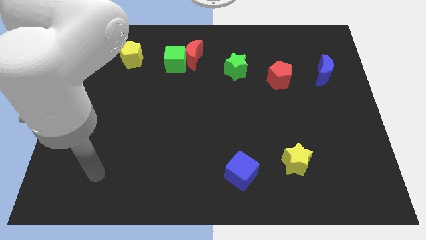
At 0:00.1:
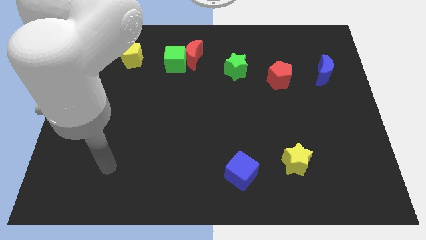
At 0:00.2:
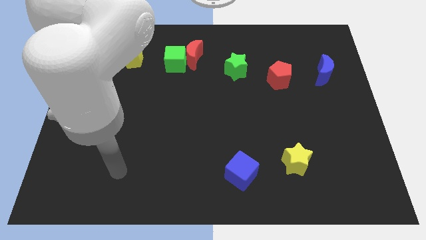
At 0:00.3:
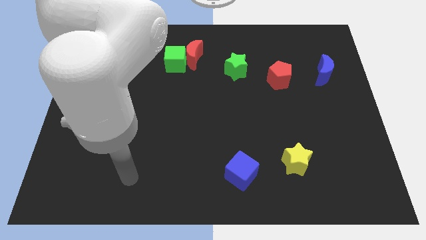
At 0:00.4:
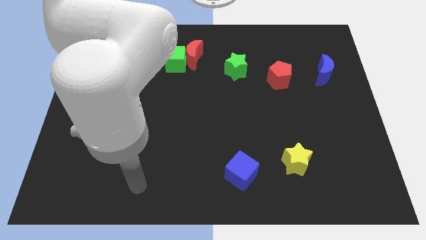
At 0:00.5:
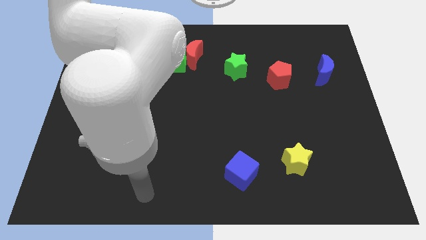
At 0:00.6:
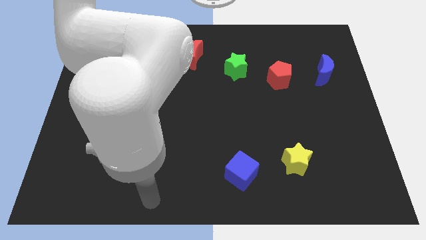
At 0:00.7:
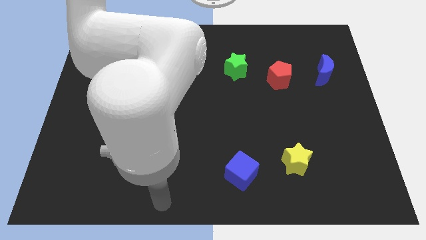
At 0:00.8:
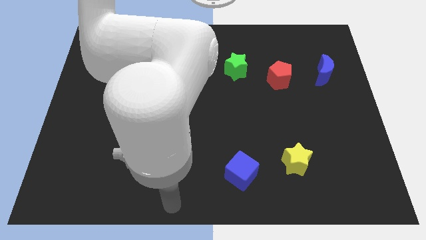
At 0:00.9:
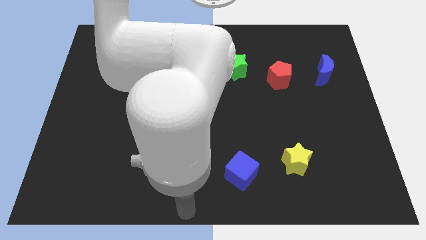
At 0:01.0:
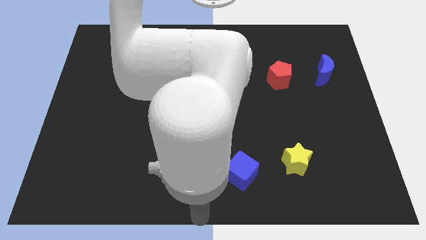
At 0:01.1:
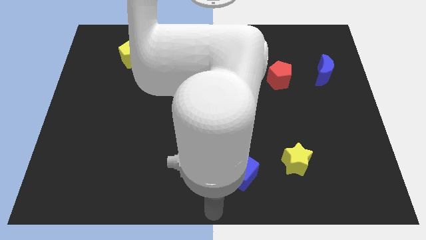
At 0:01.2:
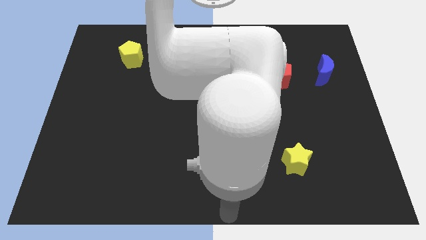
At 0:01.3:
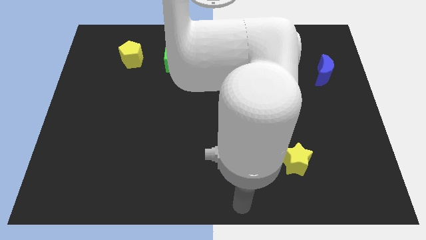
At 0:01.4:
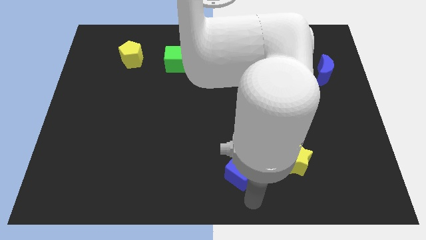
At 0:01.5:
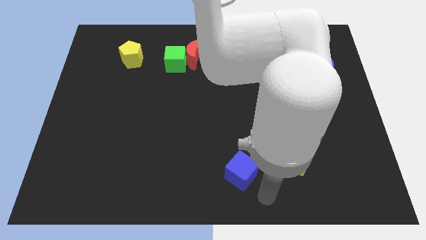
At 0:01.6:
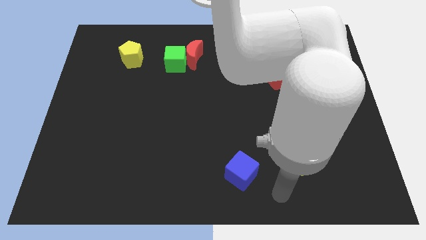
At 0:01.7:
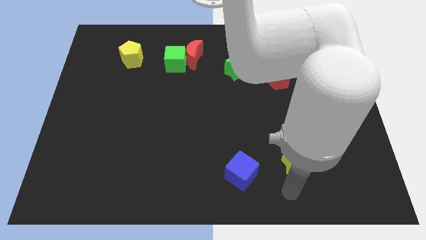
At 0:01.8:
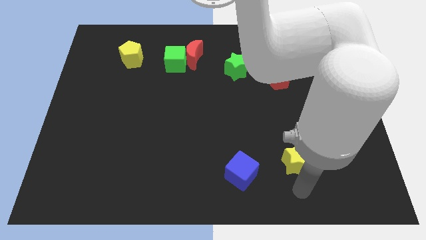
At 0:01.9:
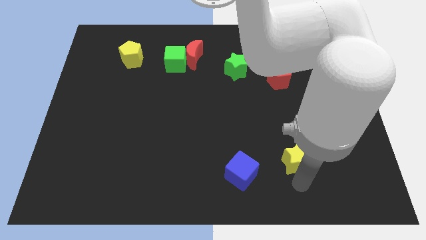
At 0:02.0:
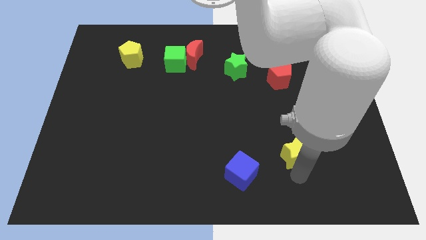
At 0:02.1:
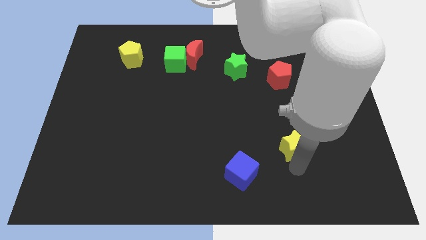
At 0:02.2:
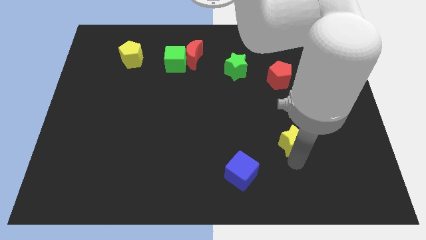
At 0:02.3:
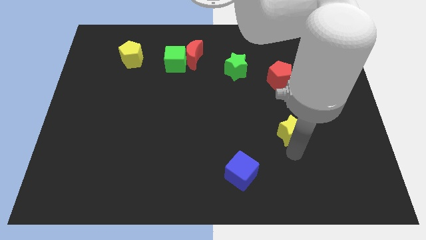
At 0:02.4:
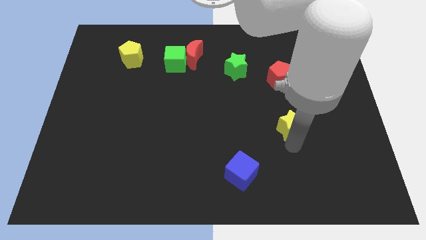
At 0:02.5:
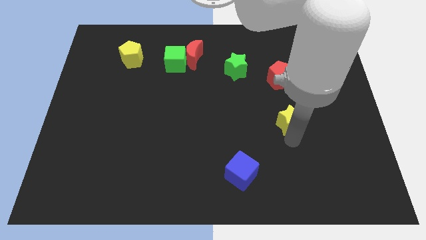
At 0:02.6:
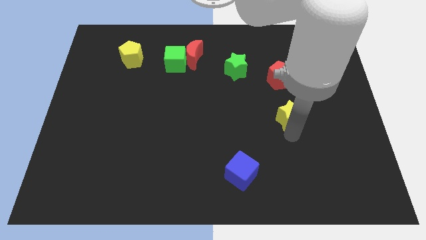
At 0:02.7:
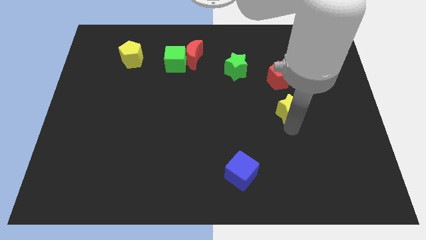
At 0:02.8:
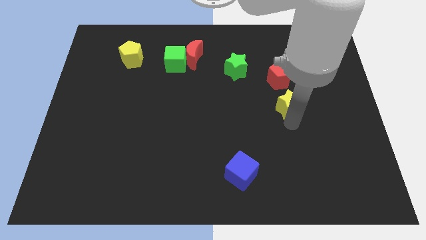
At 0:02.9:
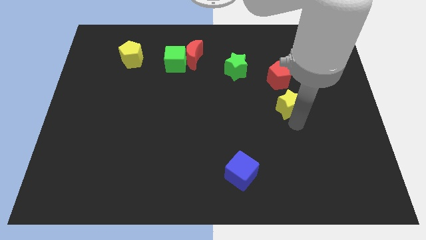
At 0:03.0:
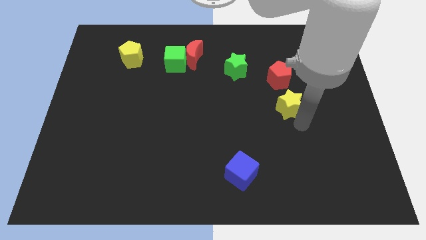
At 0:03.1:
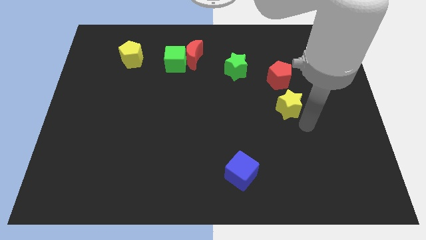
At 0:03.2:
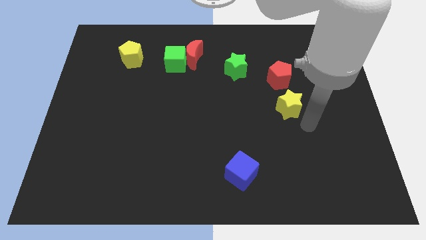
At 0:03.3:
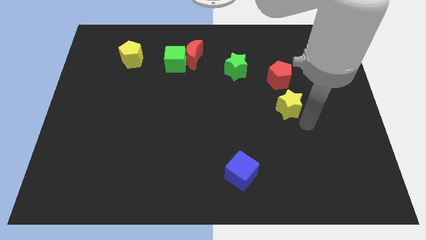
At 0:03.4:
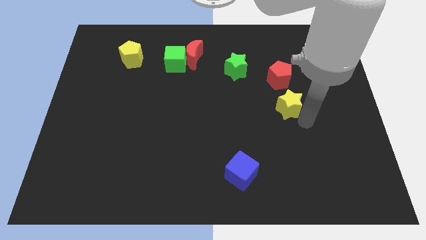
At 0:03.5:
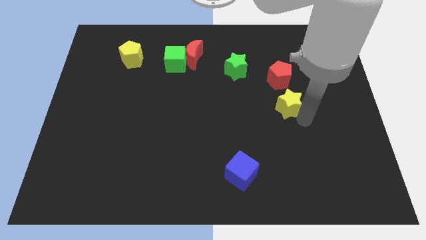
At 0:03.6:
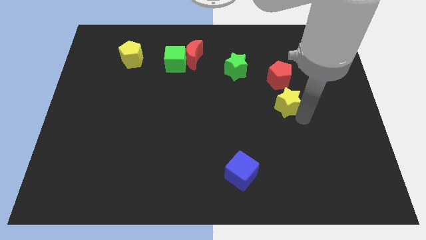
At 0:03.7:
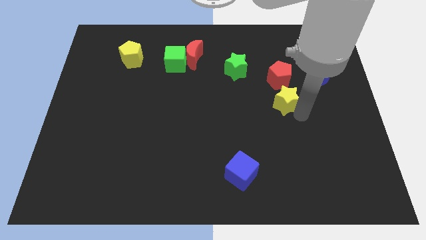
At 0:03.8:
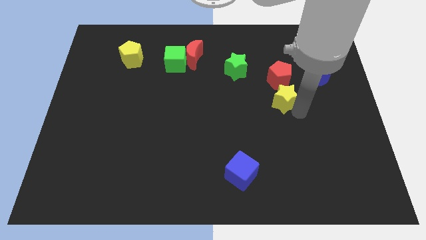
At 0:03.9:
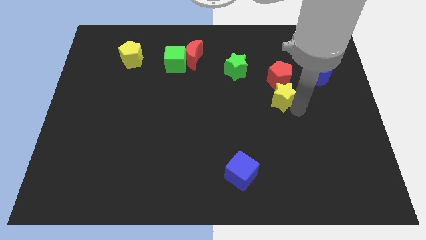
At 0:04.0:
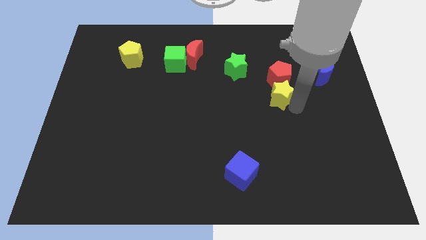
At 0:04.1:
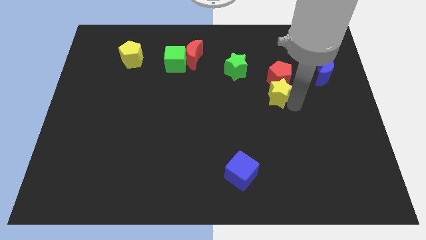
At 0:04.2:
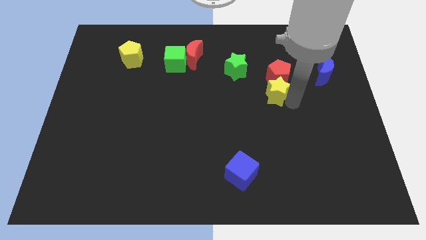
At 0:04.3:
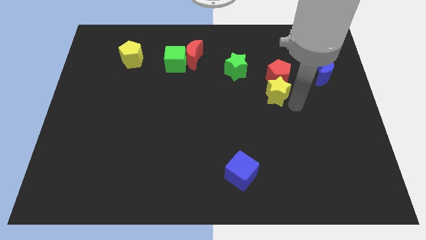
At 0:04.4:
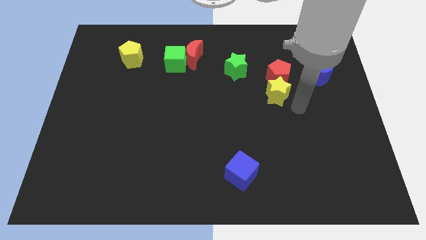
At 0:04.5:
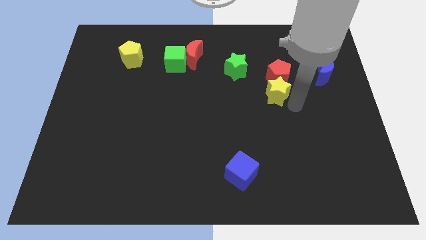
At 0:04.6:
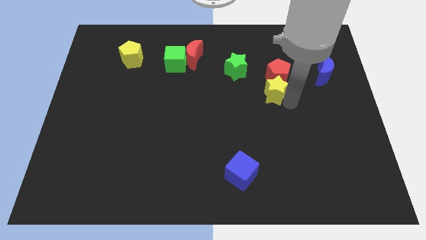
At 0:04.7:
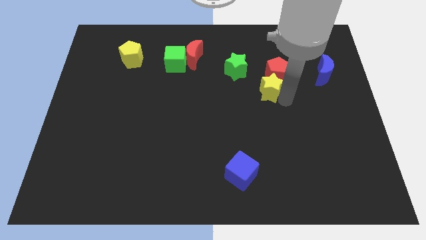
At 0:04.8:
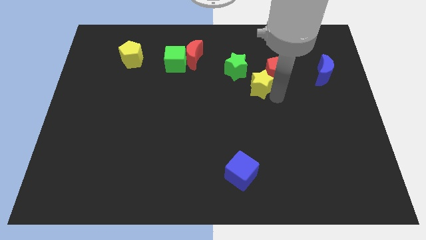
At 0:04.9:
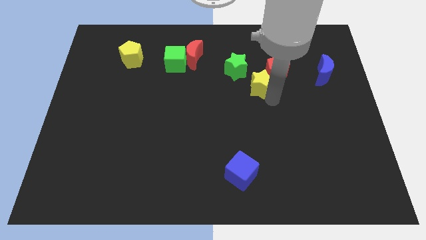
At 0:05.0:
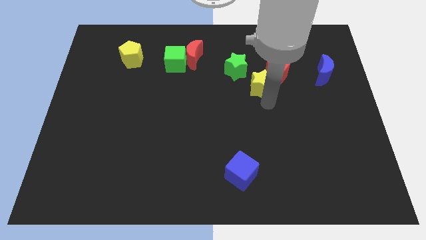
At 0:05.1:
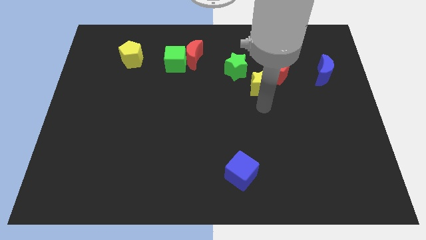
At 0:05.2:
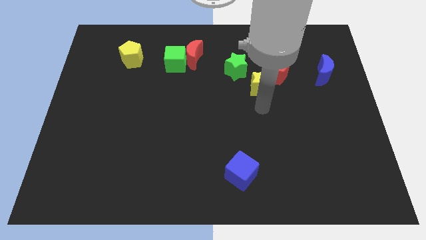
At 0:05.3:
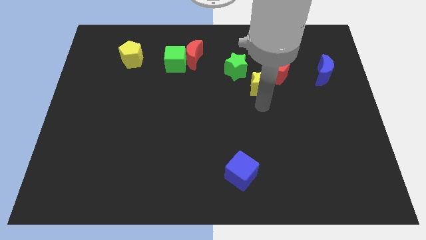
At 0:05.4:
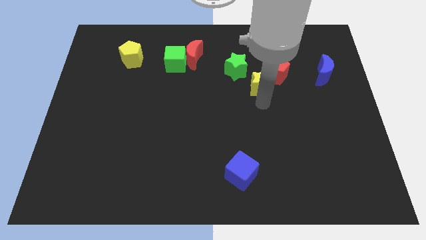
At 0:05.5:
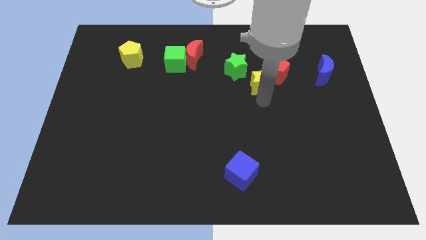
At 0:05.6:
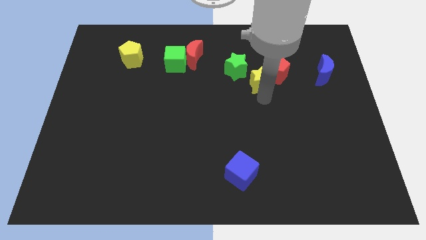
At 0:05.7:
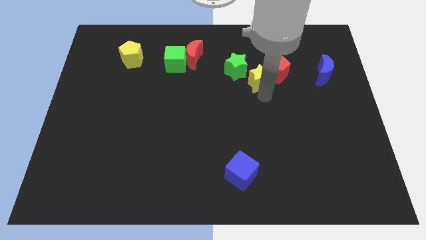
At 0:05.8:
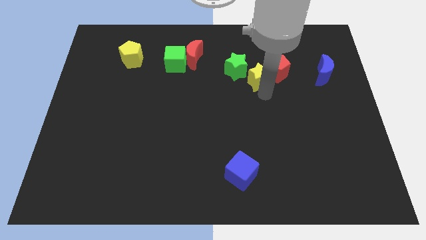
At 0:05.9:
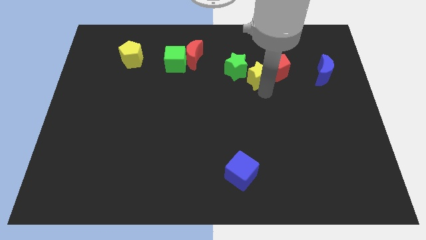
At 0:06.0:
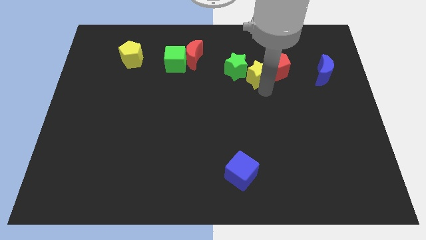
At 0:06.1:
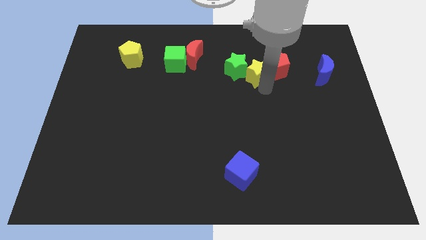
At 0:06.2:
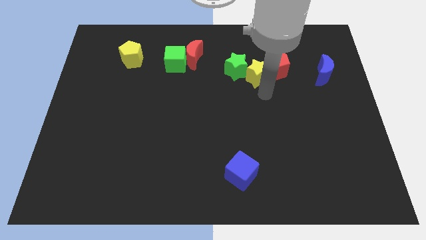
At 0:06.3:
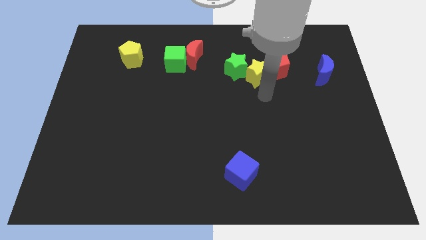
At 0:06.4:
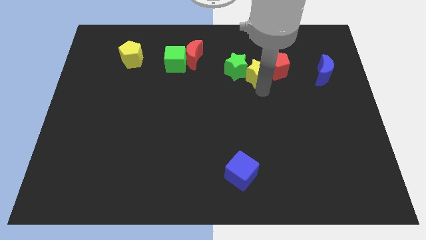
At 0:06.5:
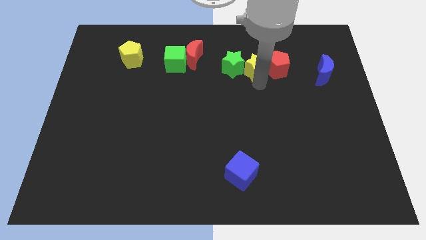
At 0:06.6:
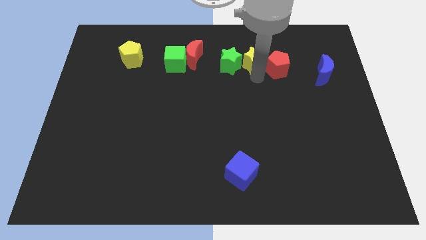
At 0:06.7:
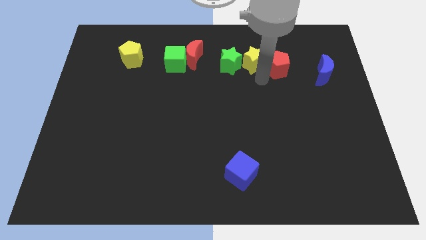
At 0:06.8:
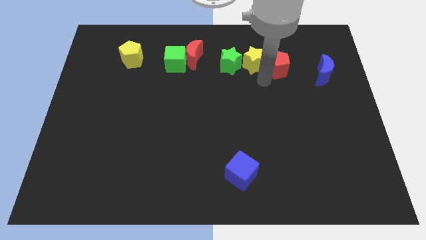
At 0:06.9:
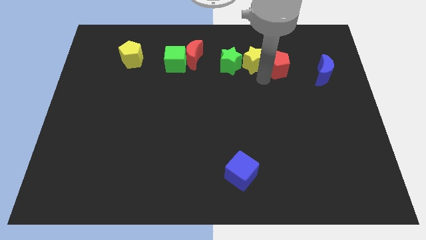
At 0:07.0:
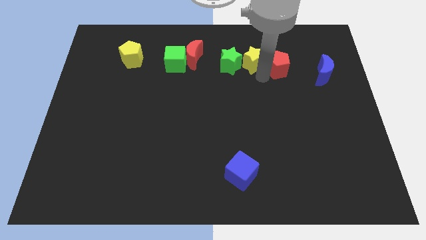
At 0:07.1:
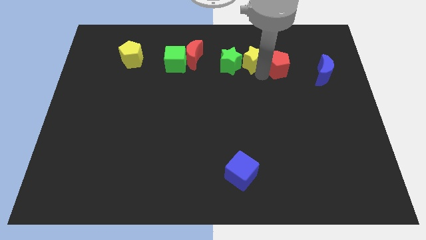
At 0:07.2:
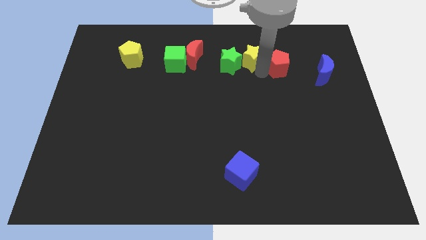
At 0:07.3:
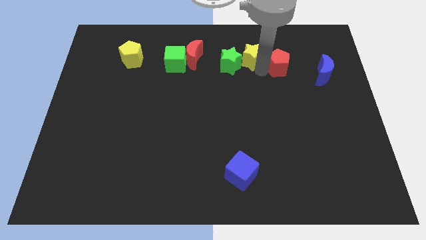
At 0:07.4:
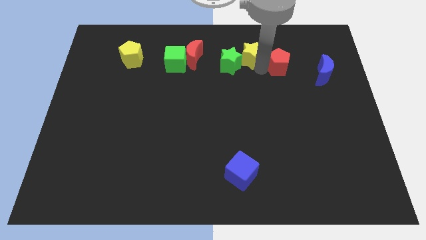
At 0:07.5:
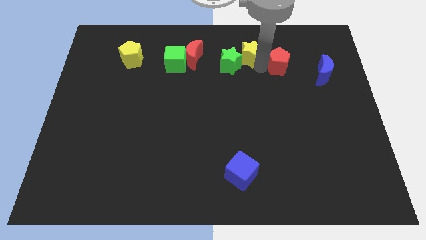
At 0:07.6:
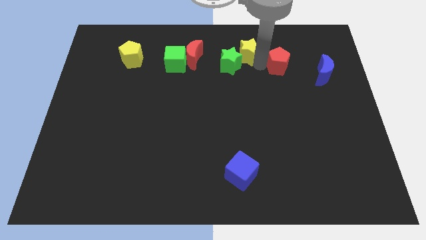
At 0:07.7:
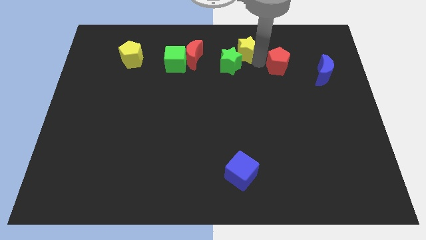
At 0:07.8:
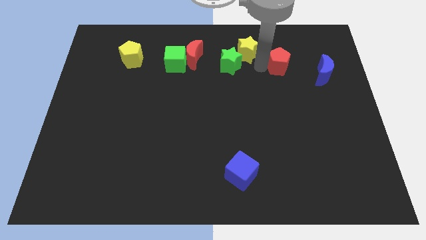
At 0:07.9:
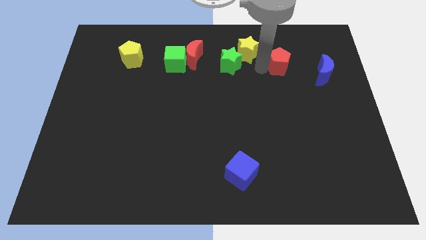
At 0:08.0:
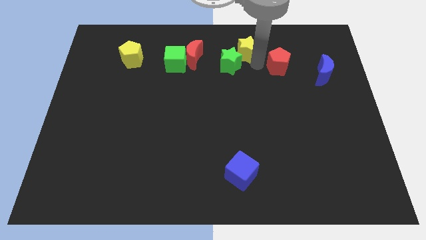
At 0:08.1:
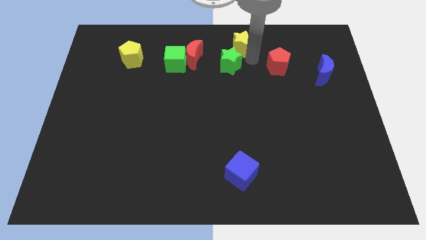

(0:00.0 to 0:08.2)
put the yellow star to the top
